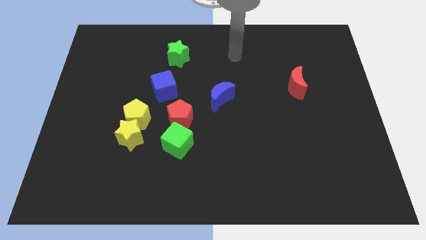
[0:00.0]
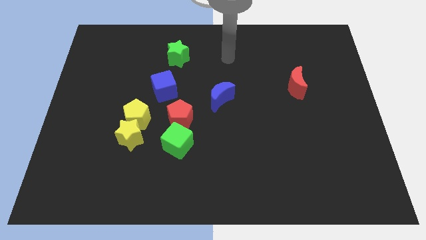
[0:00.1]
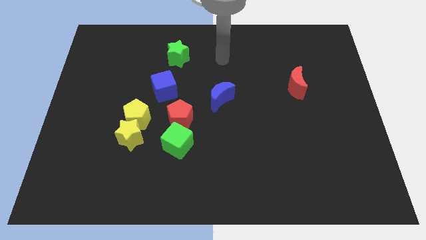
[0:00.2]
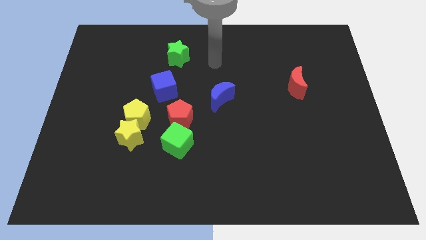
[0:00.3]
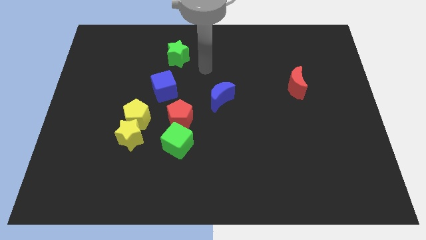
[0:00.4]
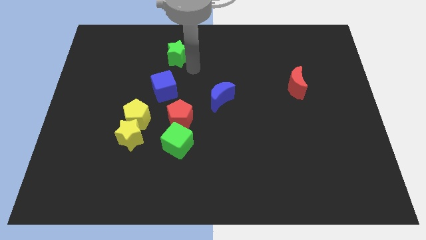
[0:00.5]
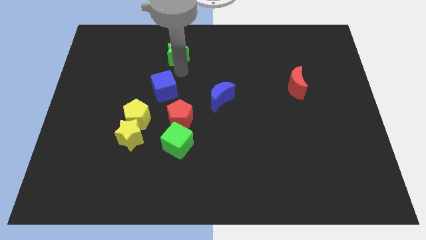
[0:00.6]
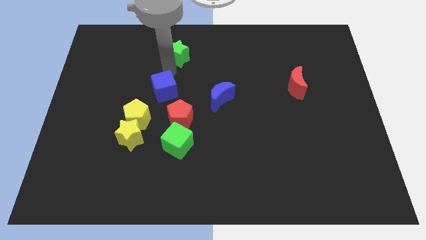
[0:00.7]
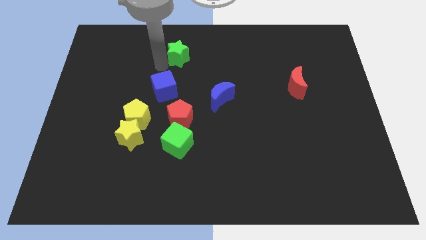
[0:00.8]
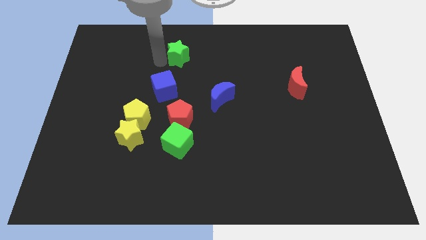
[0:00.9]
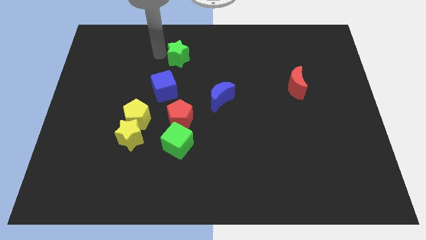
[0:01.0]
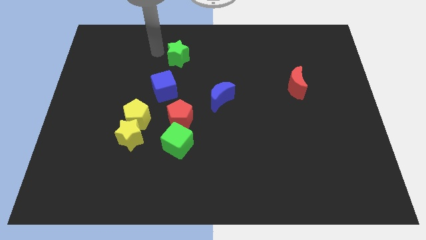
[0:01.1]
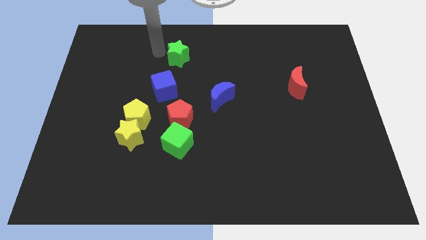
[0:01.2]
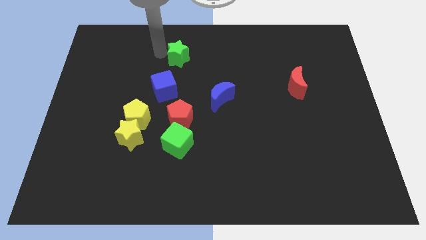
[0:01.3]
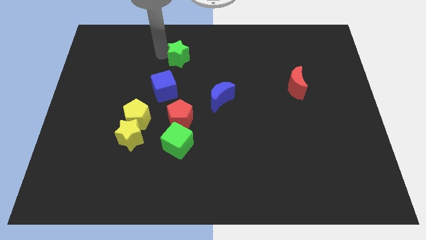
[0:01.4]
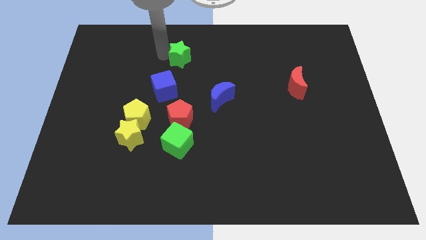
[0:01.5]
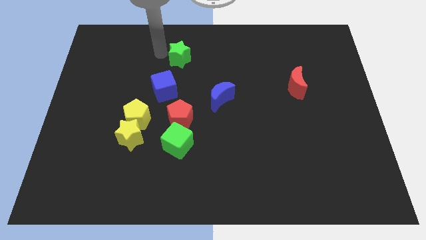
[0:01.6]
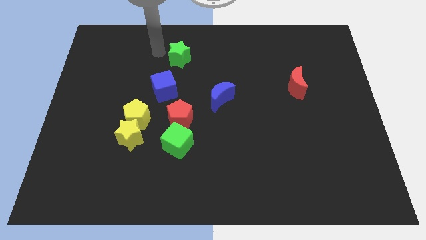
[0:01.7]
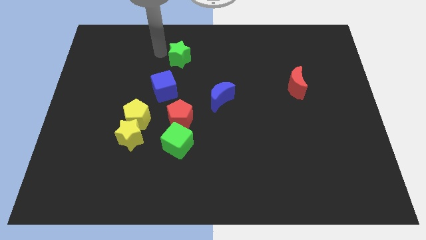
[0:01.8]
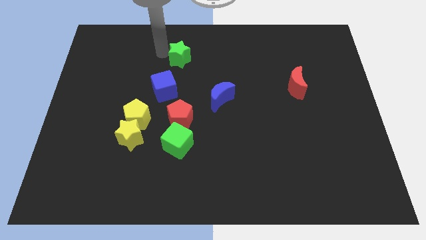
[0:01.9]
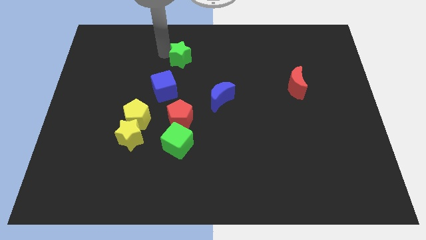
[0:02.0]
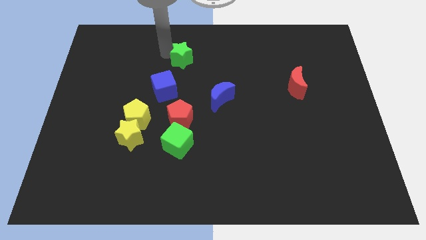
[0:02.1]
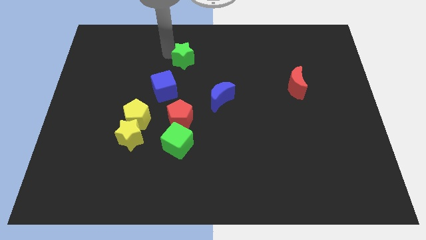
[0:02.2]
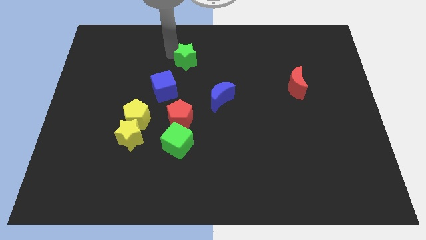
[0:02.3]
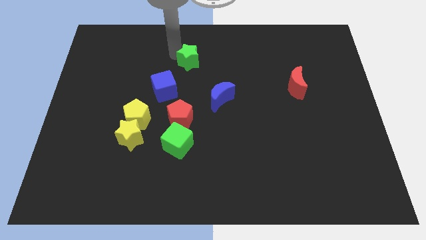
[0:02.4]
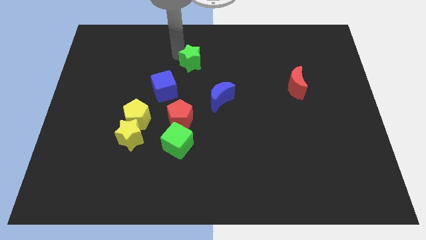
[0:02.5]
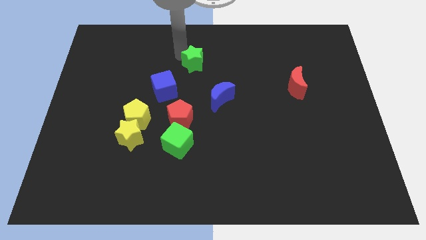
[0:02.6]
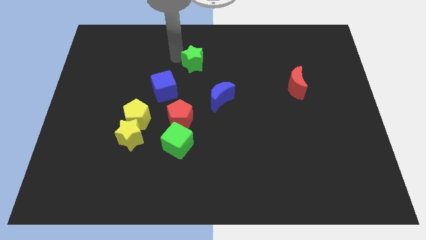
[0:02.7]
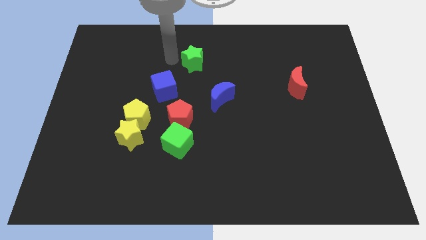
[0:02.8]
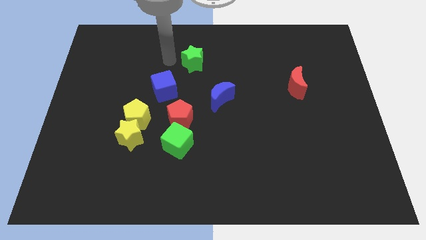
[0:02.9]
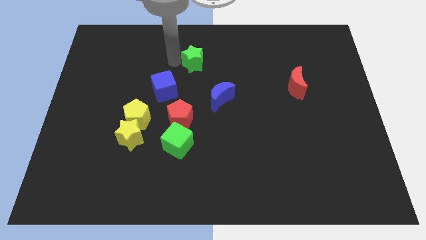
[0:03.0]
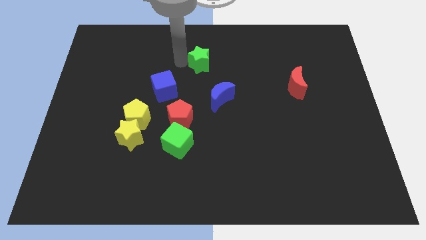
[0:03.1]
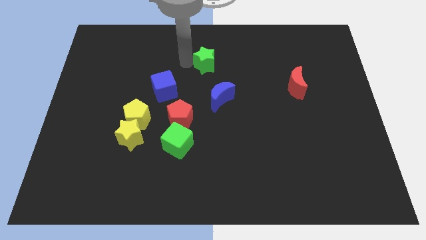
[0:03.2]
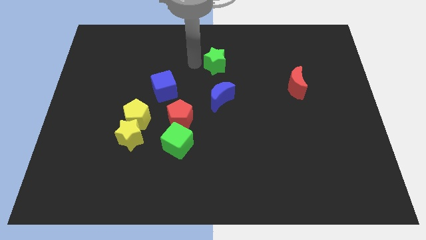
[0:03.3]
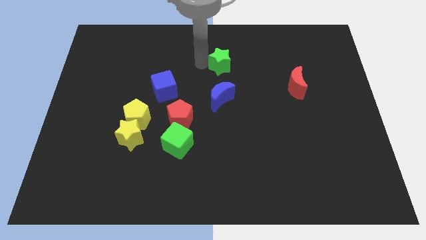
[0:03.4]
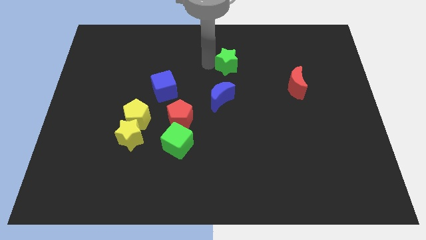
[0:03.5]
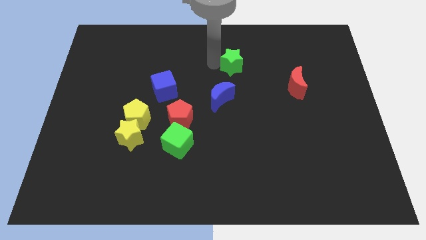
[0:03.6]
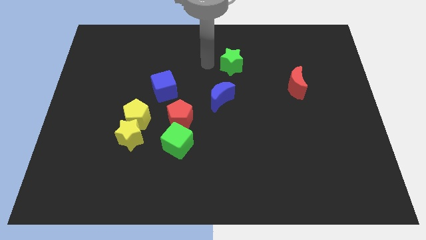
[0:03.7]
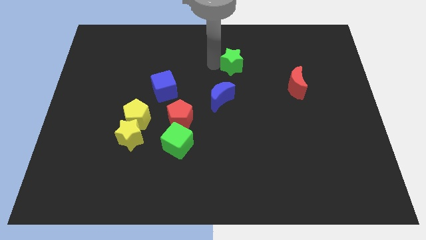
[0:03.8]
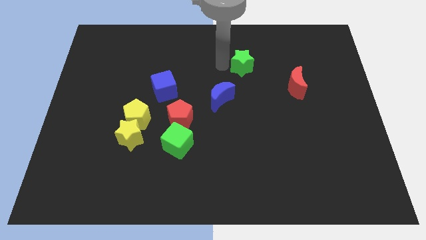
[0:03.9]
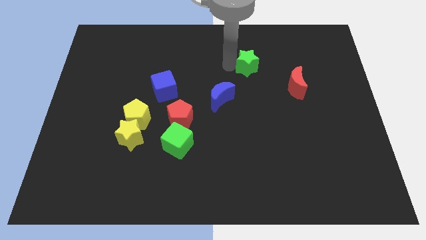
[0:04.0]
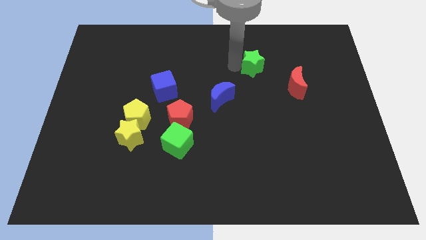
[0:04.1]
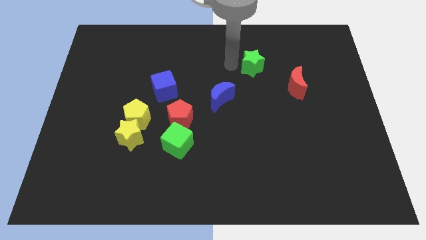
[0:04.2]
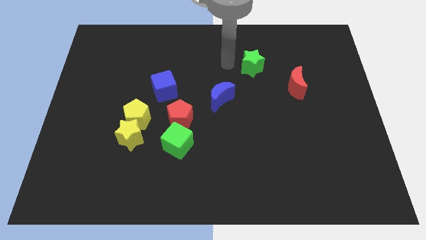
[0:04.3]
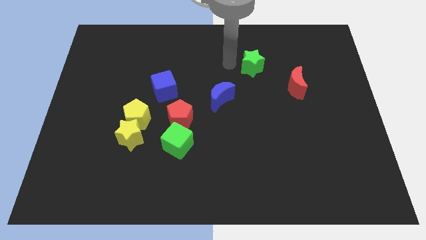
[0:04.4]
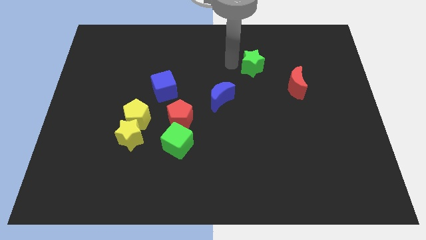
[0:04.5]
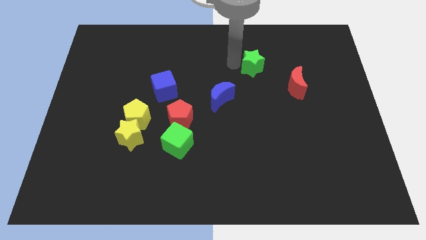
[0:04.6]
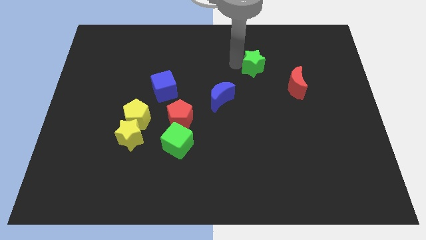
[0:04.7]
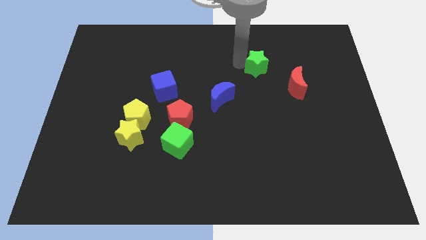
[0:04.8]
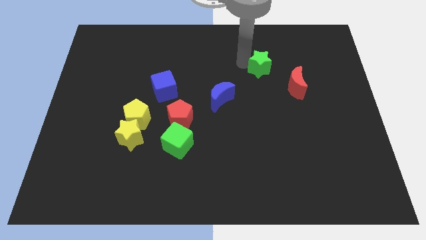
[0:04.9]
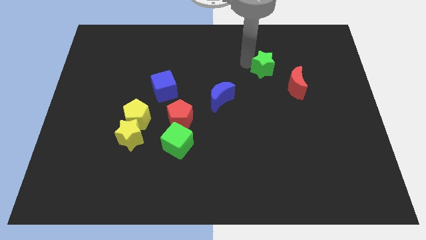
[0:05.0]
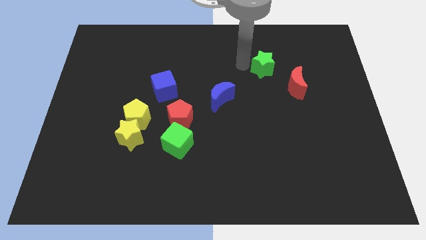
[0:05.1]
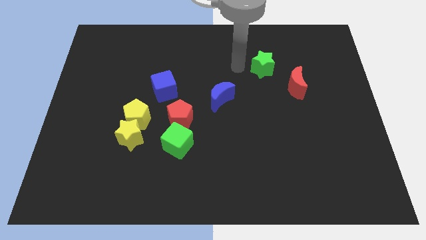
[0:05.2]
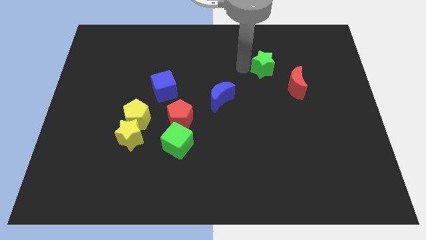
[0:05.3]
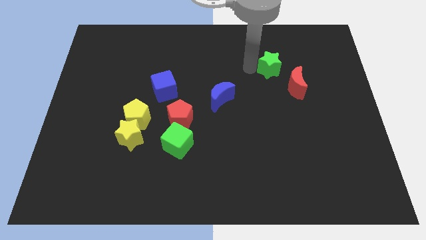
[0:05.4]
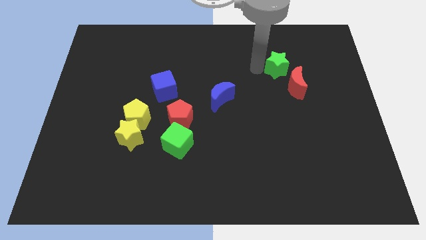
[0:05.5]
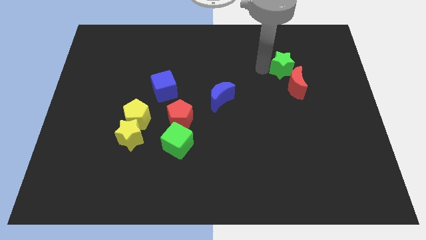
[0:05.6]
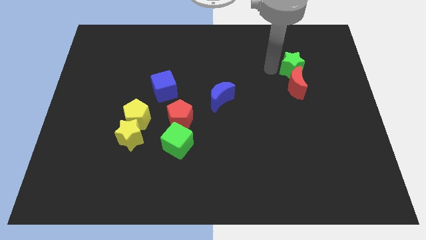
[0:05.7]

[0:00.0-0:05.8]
move the green star diagonally up and to the right of the red moon

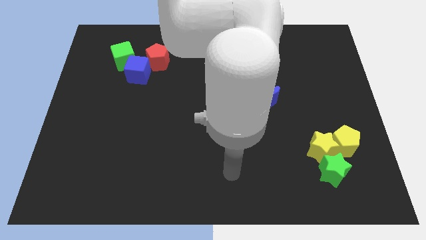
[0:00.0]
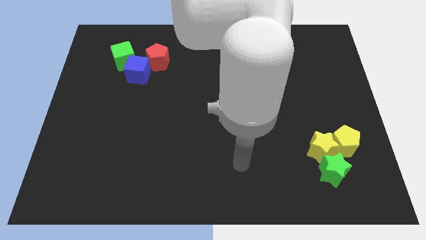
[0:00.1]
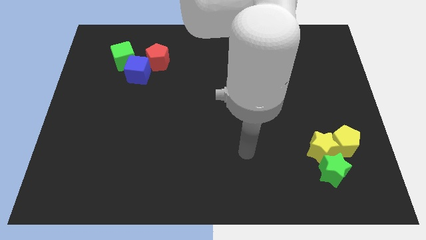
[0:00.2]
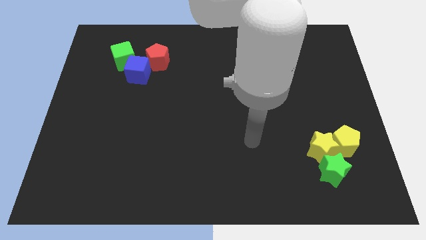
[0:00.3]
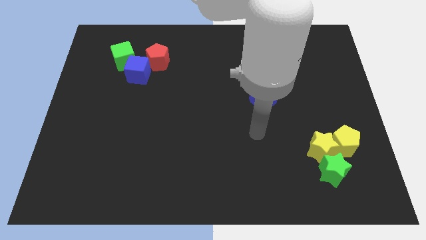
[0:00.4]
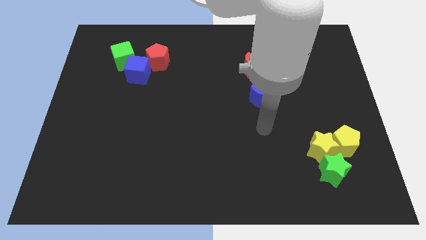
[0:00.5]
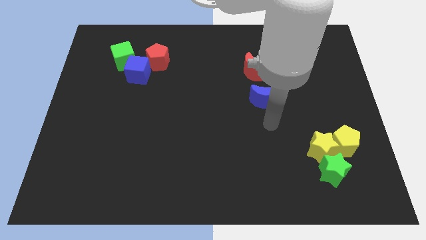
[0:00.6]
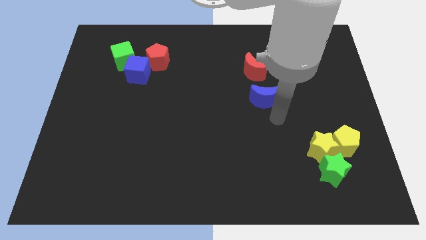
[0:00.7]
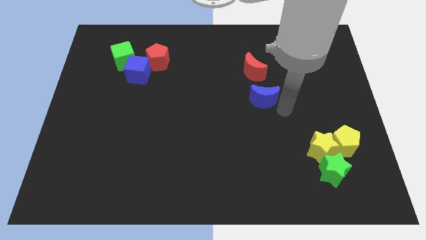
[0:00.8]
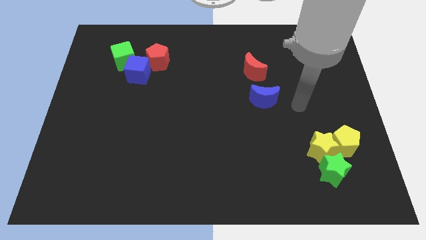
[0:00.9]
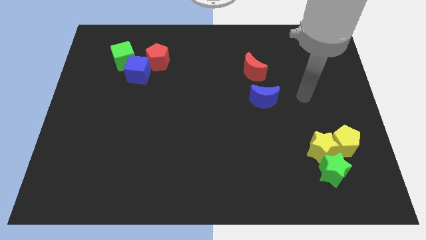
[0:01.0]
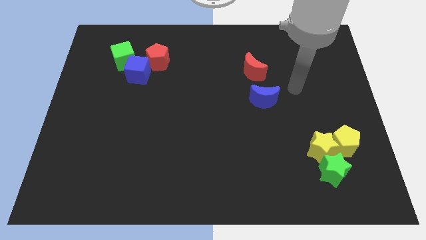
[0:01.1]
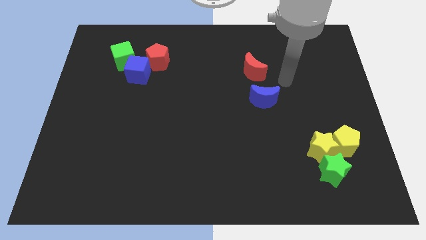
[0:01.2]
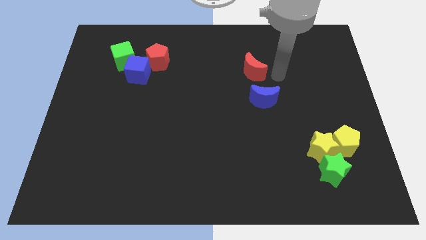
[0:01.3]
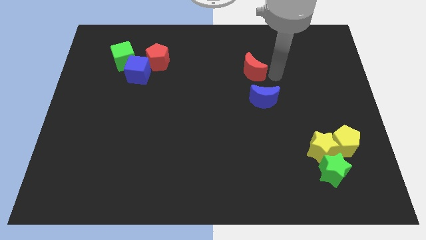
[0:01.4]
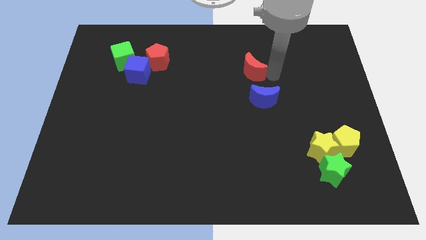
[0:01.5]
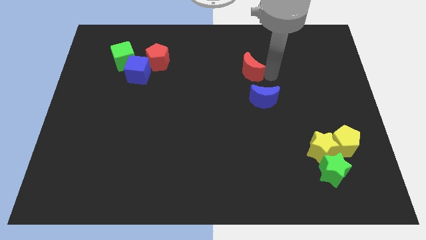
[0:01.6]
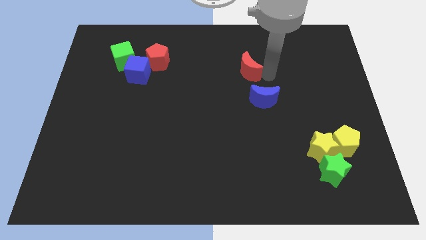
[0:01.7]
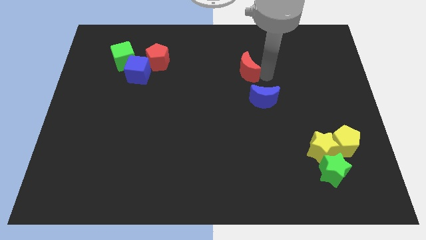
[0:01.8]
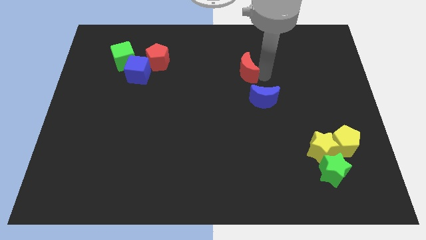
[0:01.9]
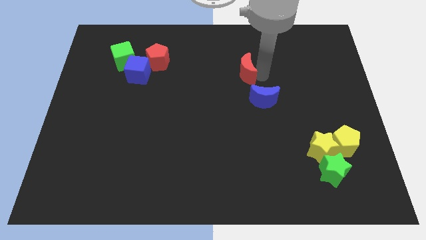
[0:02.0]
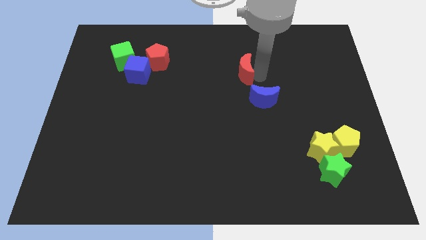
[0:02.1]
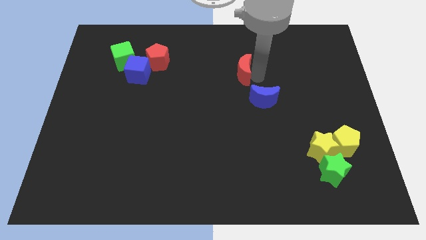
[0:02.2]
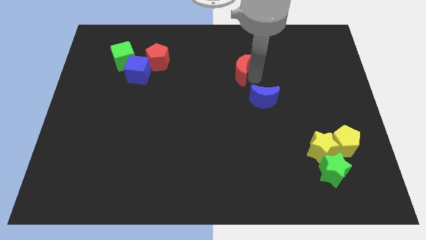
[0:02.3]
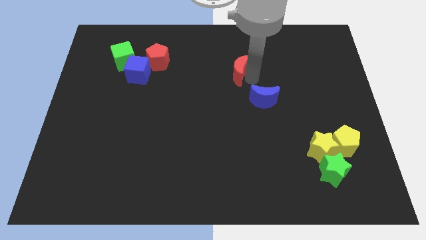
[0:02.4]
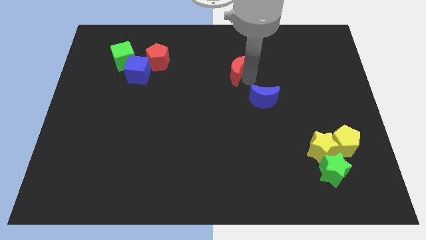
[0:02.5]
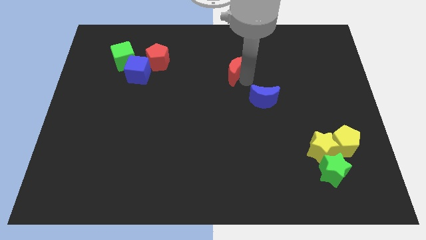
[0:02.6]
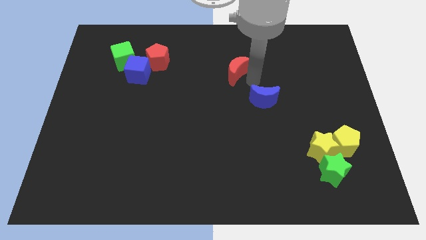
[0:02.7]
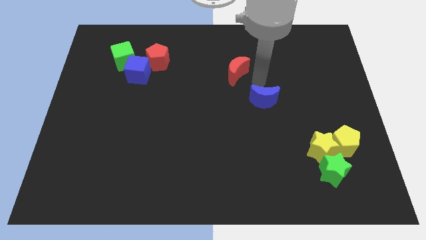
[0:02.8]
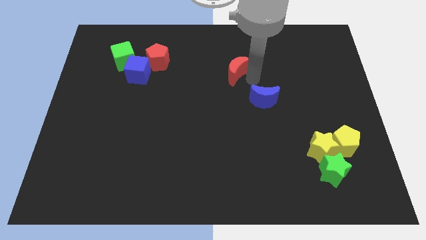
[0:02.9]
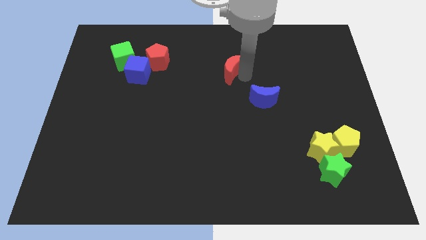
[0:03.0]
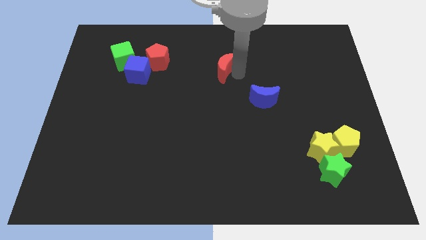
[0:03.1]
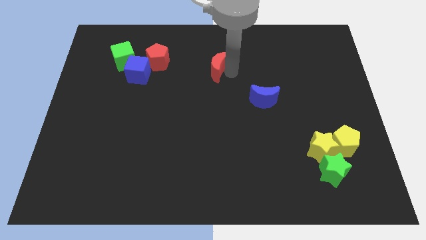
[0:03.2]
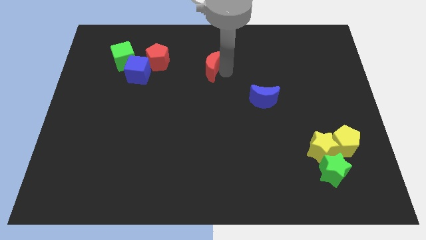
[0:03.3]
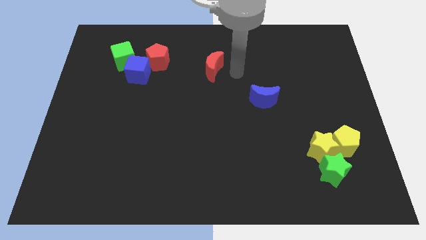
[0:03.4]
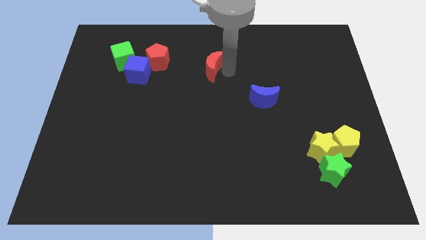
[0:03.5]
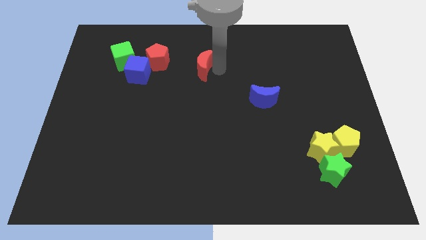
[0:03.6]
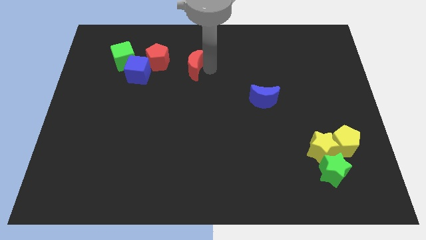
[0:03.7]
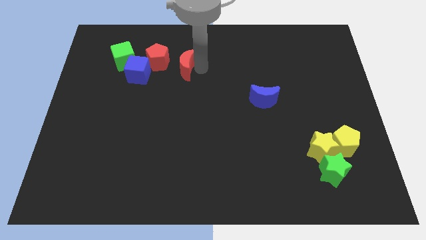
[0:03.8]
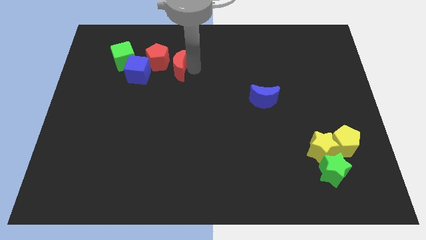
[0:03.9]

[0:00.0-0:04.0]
push the red moon right of the green cube
